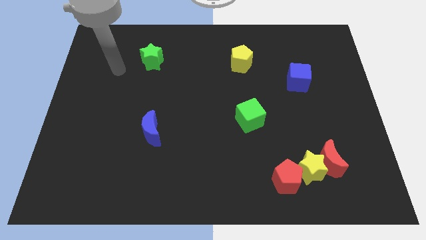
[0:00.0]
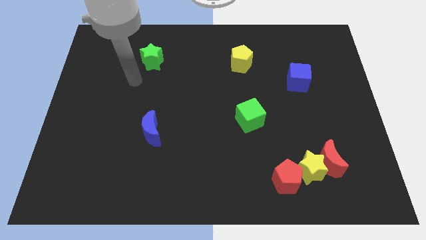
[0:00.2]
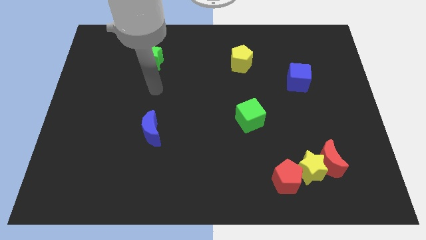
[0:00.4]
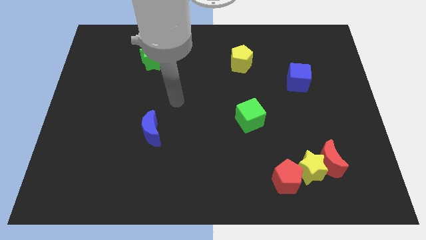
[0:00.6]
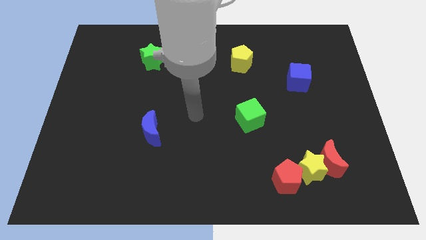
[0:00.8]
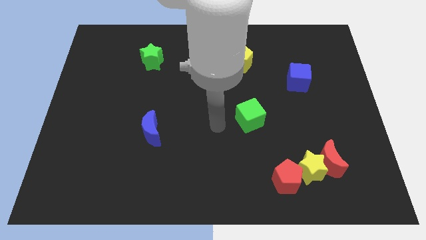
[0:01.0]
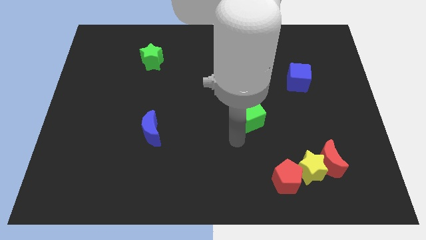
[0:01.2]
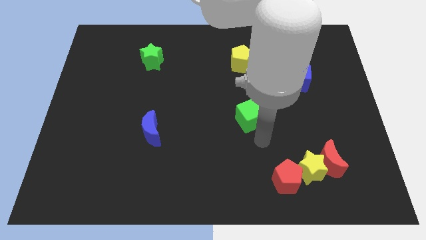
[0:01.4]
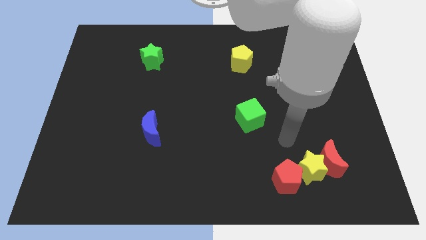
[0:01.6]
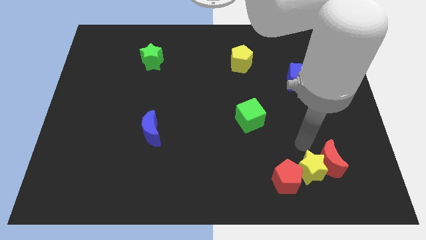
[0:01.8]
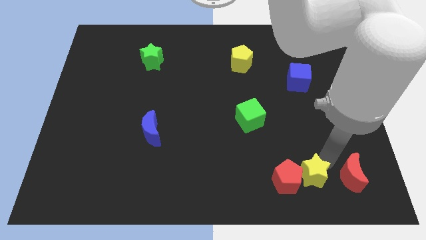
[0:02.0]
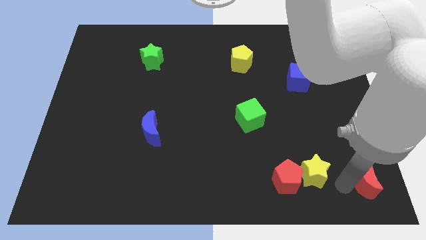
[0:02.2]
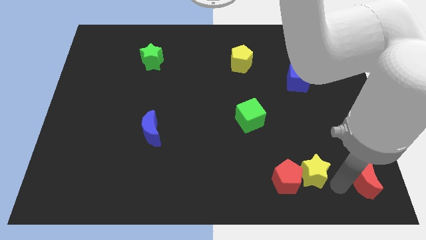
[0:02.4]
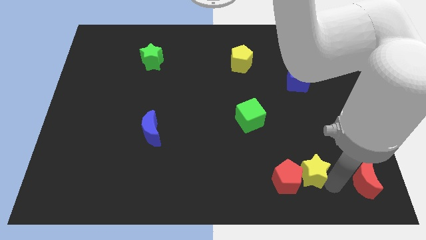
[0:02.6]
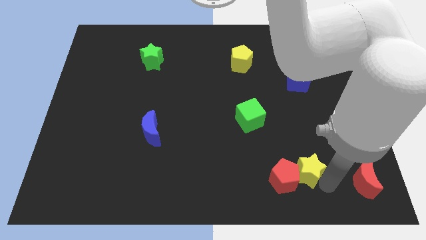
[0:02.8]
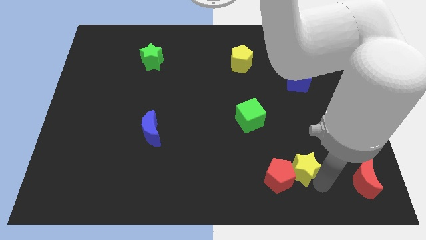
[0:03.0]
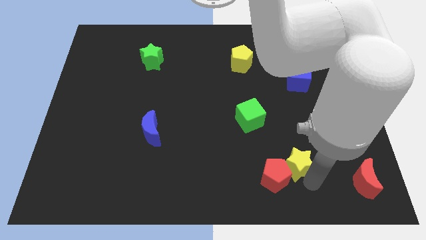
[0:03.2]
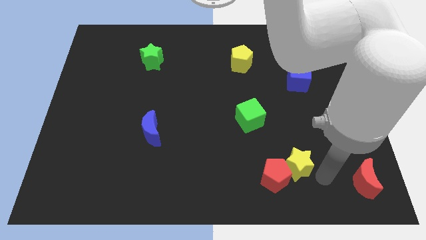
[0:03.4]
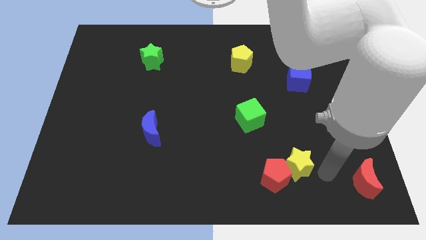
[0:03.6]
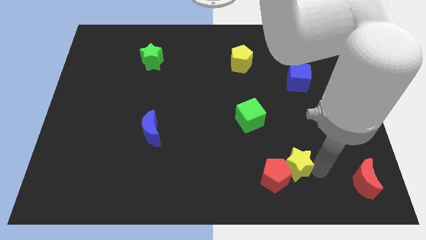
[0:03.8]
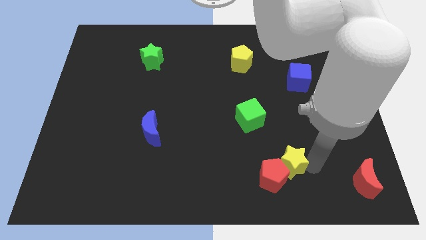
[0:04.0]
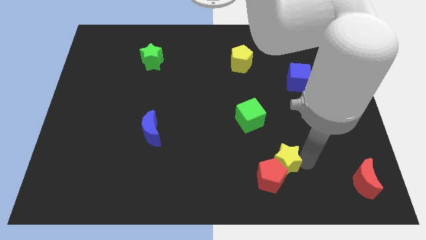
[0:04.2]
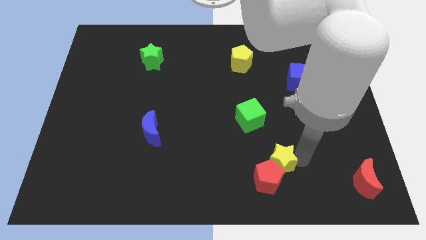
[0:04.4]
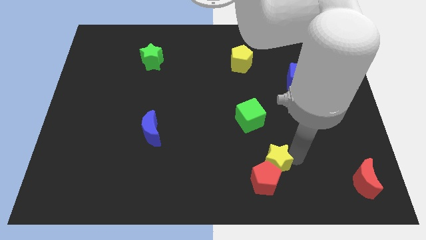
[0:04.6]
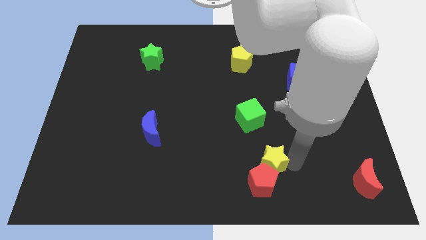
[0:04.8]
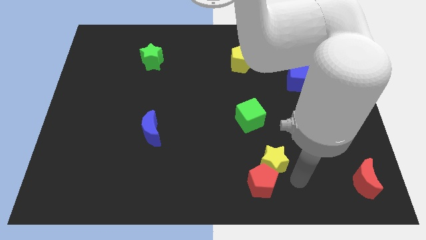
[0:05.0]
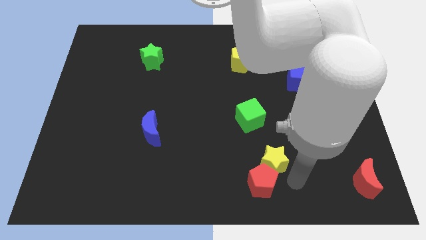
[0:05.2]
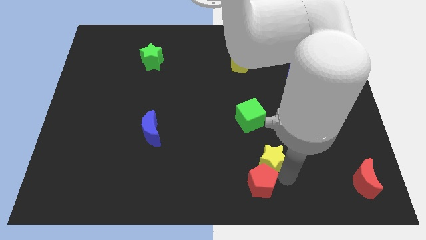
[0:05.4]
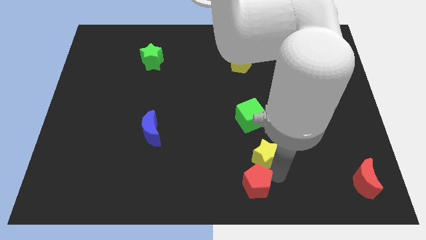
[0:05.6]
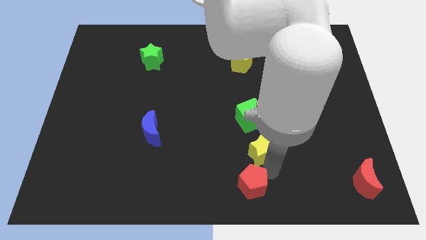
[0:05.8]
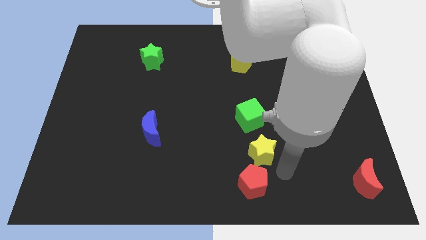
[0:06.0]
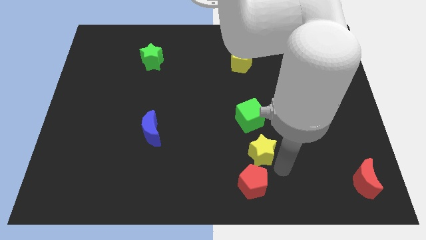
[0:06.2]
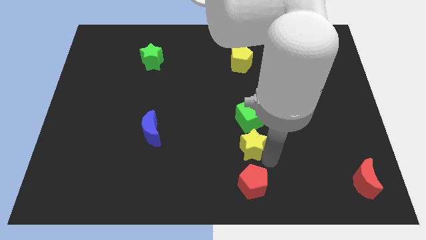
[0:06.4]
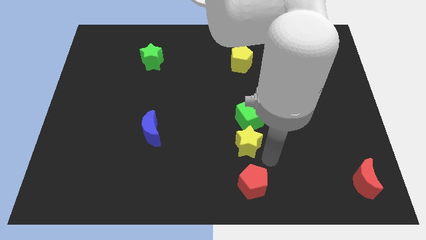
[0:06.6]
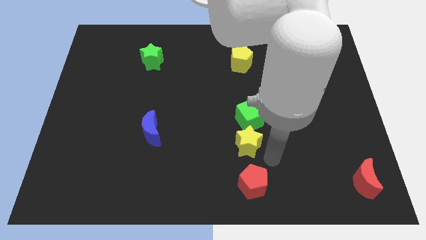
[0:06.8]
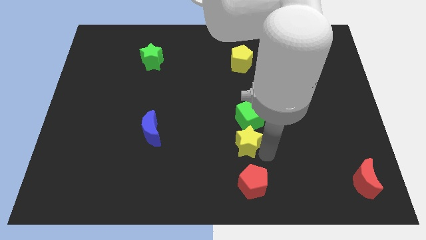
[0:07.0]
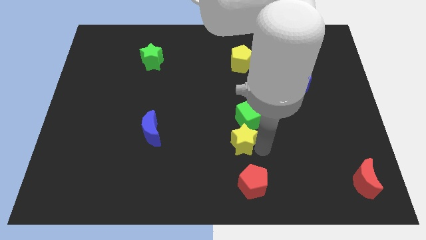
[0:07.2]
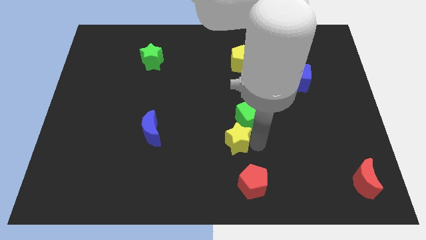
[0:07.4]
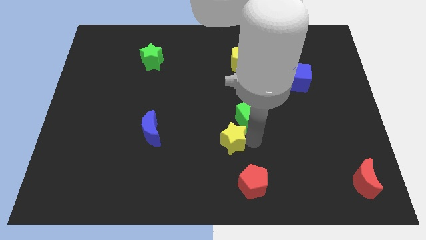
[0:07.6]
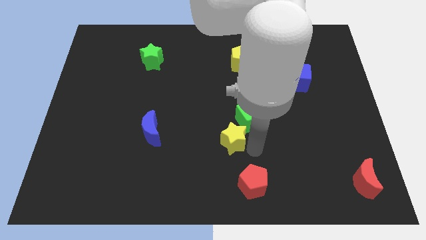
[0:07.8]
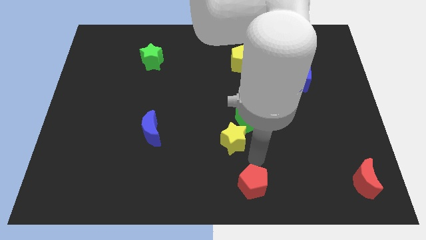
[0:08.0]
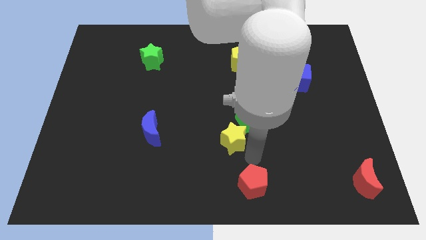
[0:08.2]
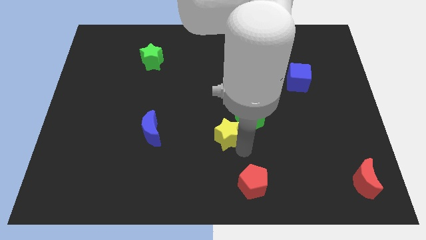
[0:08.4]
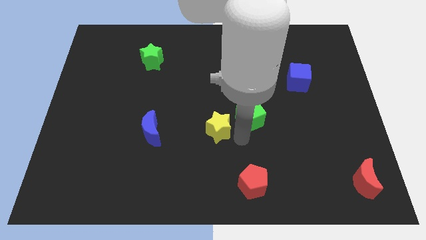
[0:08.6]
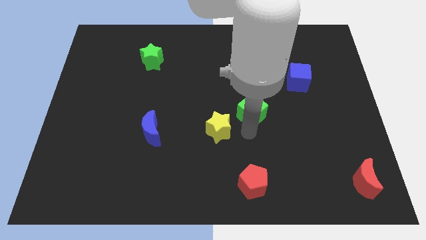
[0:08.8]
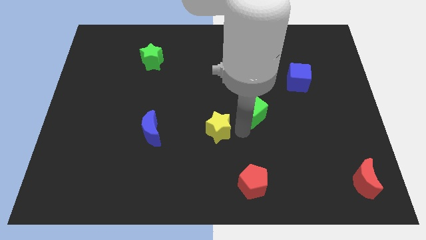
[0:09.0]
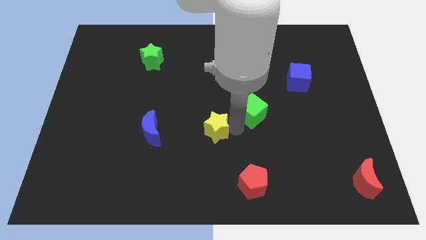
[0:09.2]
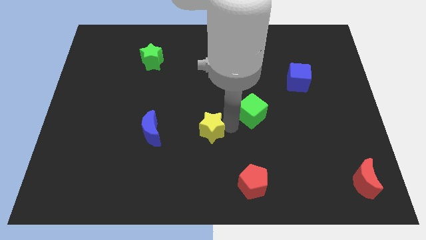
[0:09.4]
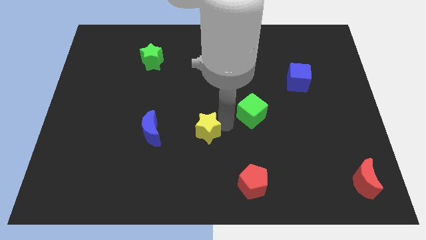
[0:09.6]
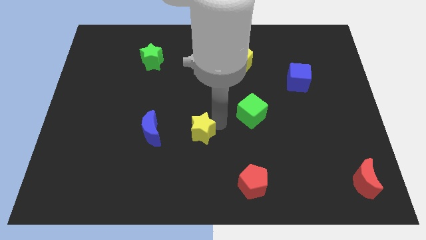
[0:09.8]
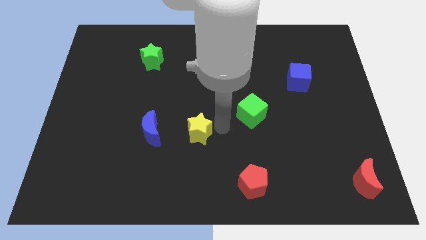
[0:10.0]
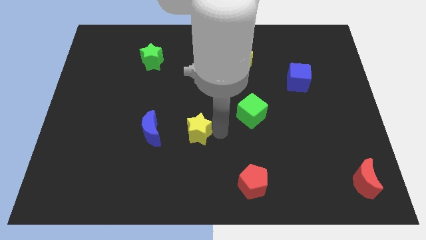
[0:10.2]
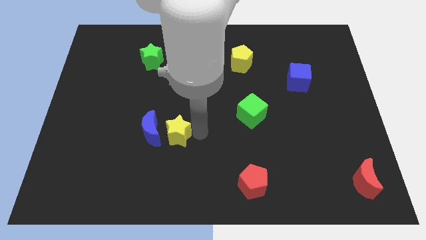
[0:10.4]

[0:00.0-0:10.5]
slide the yellow star close to the blue moon

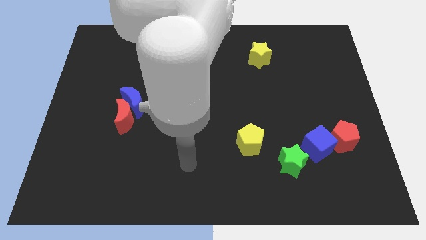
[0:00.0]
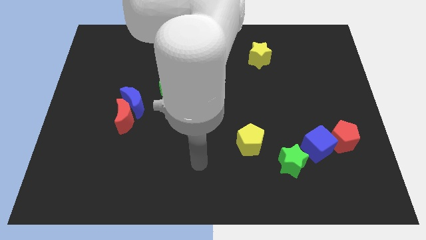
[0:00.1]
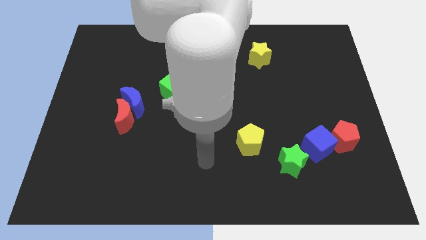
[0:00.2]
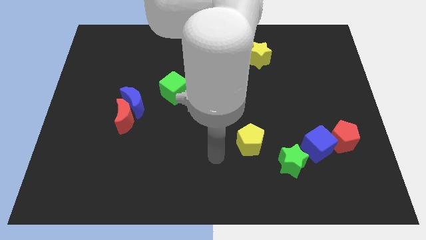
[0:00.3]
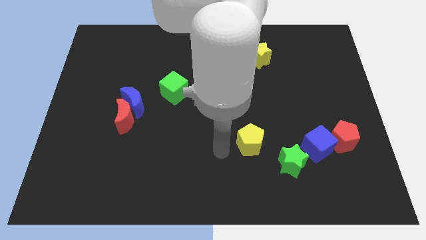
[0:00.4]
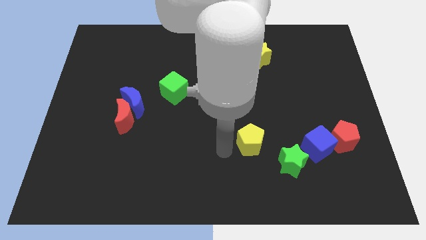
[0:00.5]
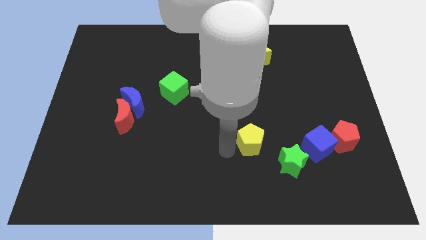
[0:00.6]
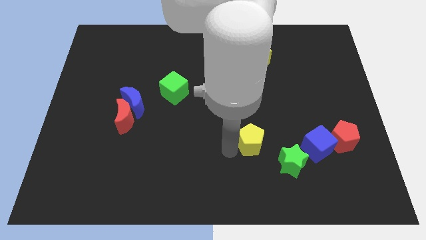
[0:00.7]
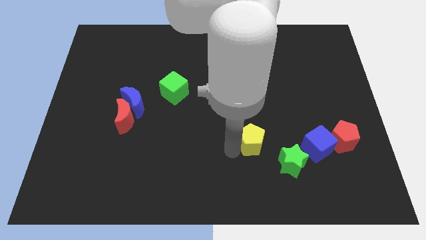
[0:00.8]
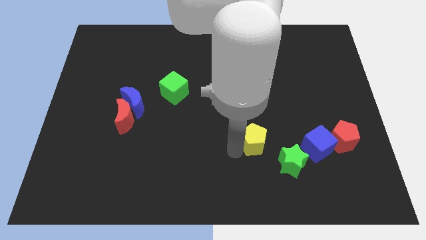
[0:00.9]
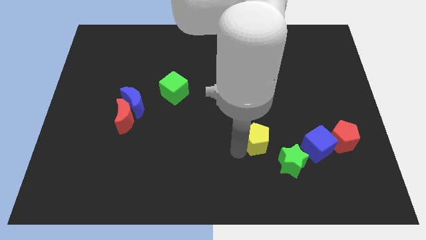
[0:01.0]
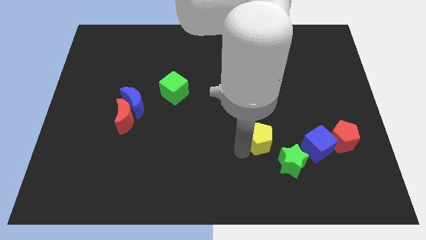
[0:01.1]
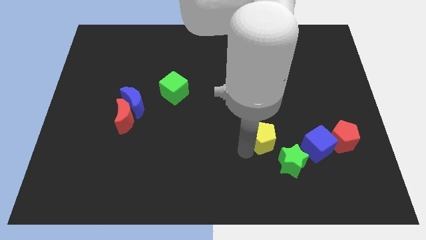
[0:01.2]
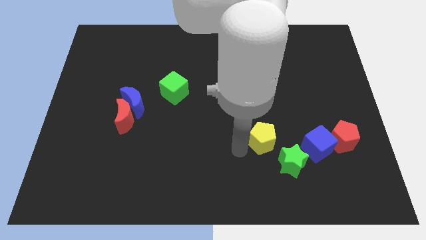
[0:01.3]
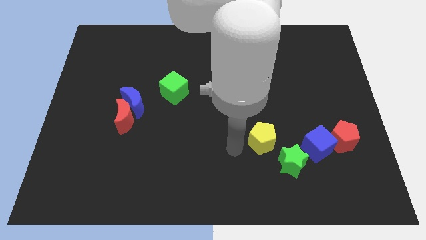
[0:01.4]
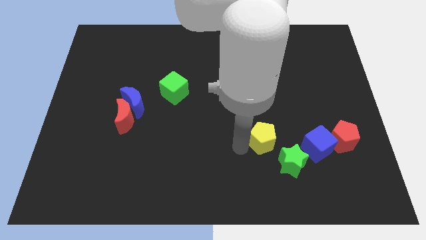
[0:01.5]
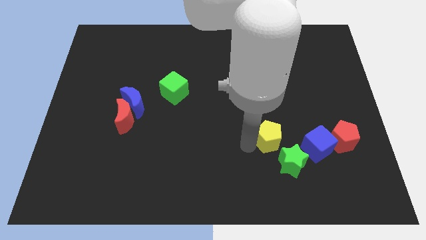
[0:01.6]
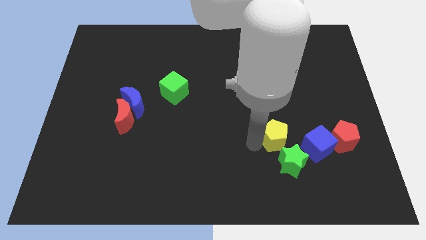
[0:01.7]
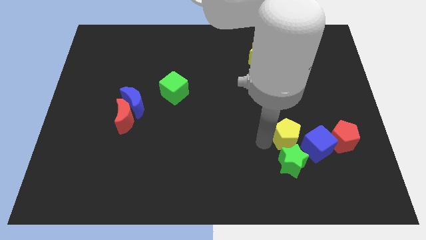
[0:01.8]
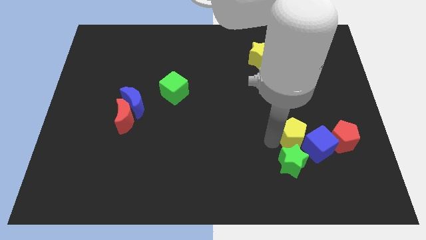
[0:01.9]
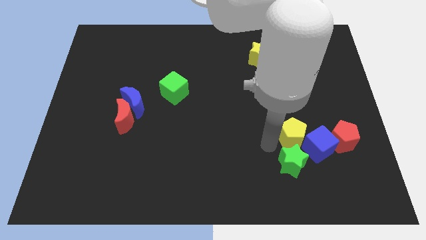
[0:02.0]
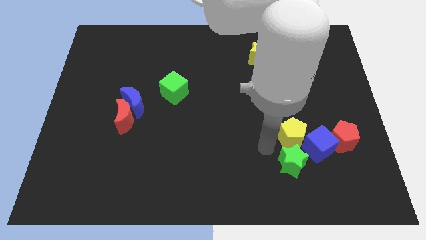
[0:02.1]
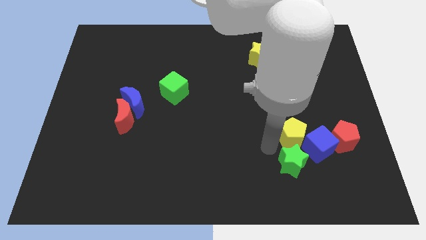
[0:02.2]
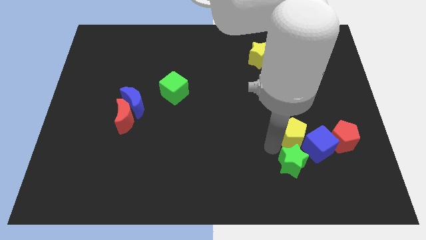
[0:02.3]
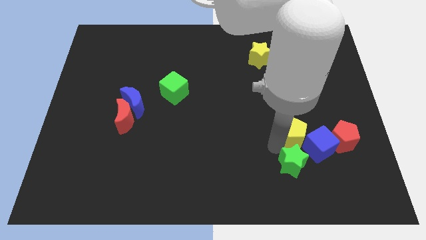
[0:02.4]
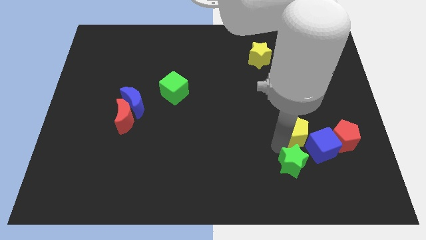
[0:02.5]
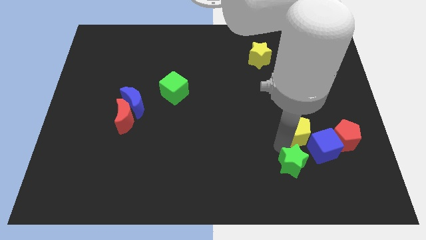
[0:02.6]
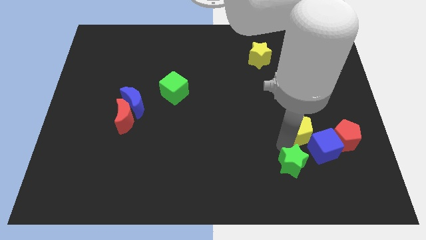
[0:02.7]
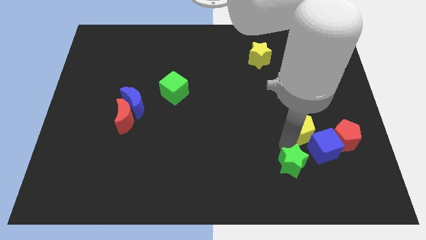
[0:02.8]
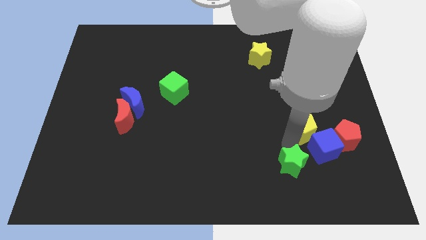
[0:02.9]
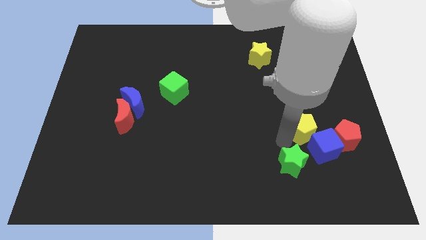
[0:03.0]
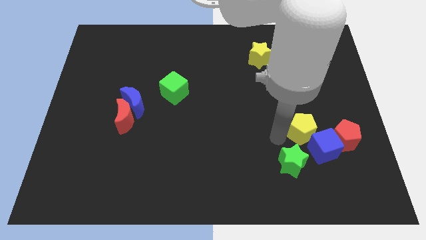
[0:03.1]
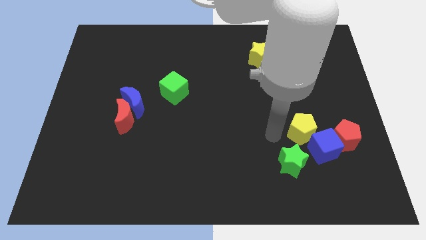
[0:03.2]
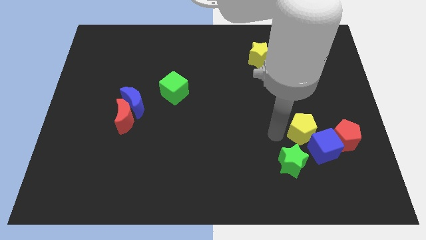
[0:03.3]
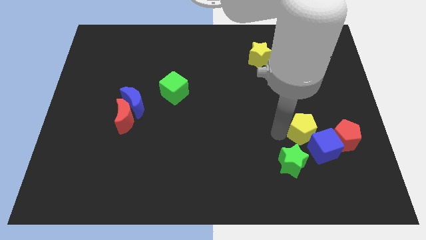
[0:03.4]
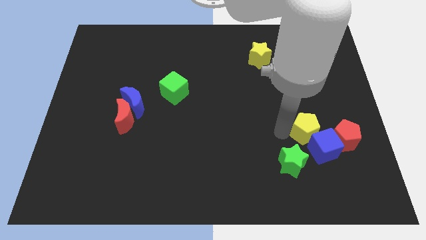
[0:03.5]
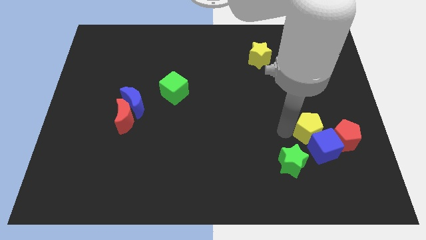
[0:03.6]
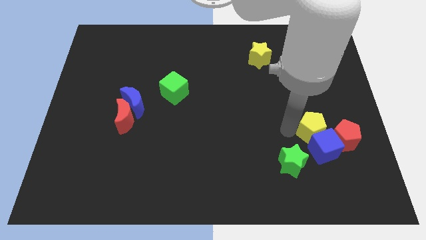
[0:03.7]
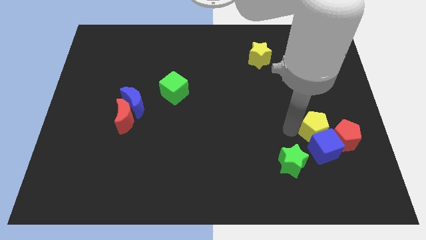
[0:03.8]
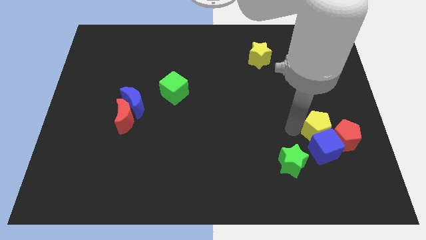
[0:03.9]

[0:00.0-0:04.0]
move the yellow pentagon to the red pentagon
